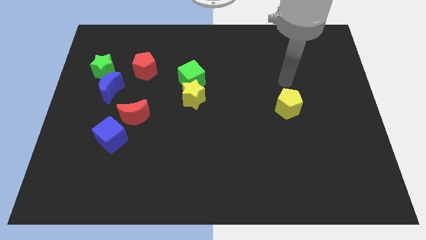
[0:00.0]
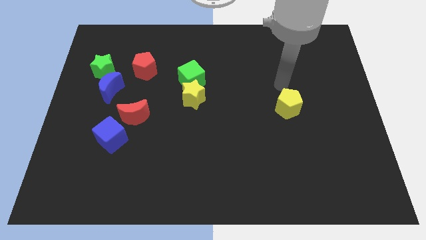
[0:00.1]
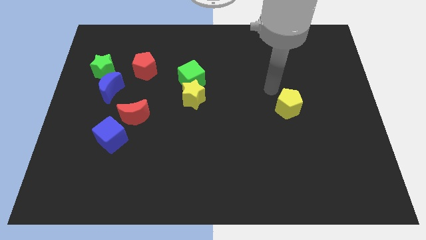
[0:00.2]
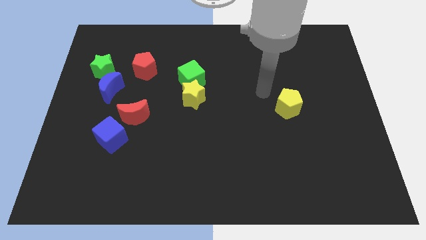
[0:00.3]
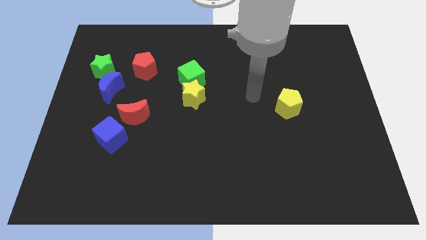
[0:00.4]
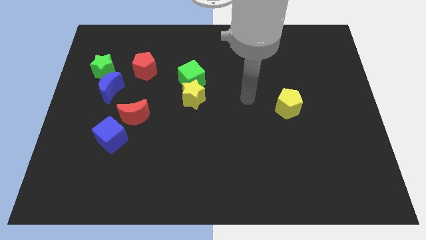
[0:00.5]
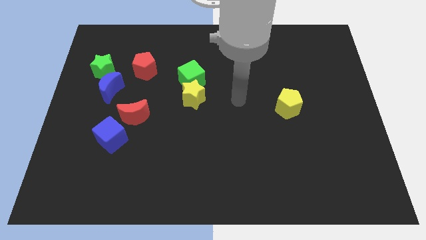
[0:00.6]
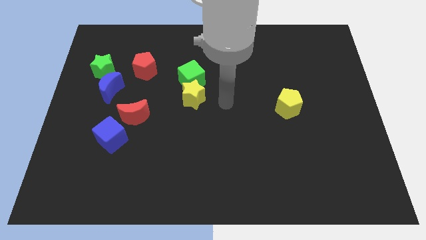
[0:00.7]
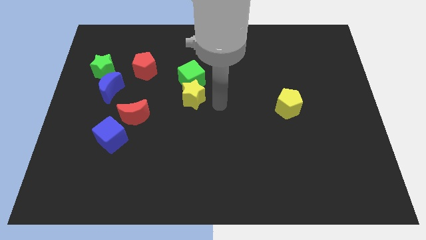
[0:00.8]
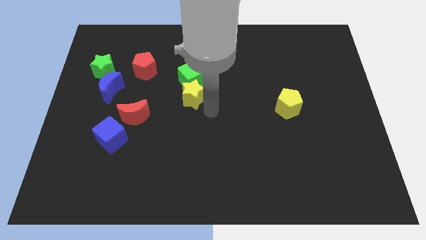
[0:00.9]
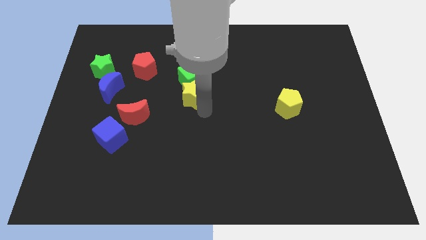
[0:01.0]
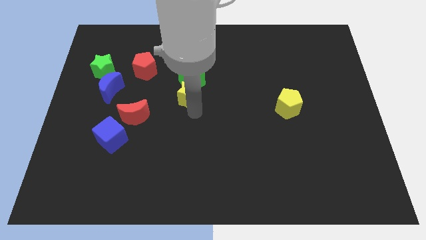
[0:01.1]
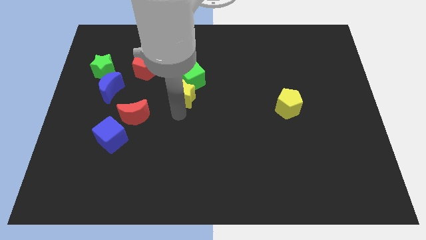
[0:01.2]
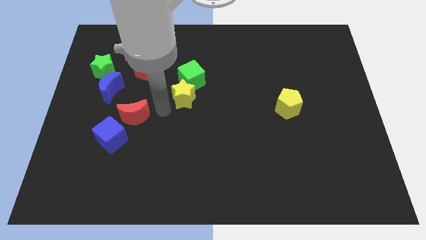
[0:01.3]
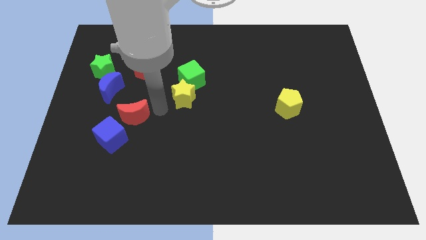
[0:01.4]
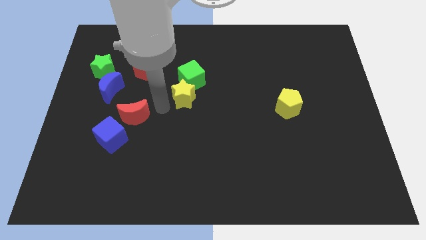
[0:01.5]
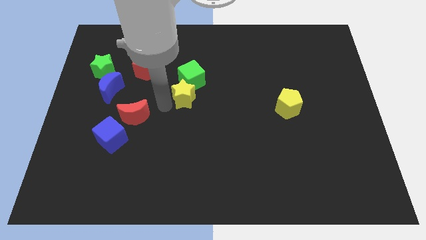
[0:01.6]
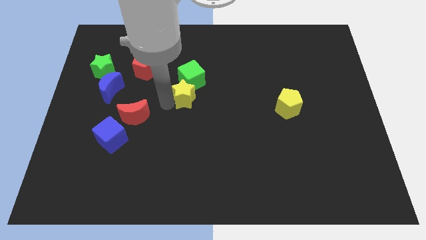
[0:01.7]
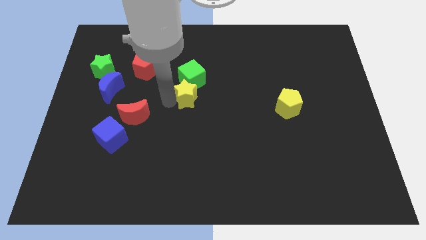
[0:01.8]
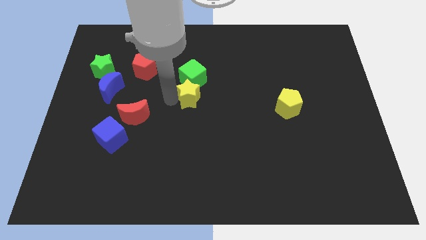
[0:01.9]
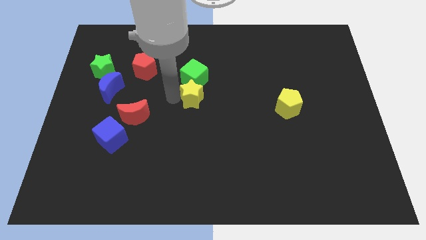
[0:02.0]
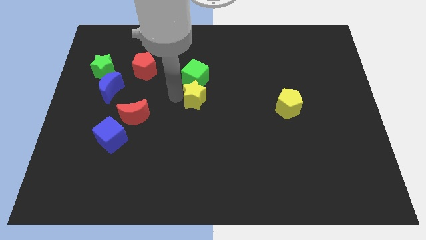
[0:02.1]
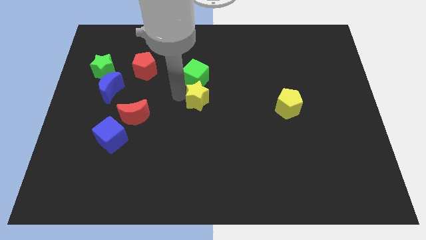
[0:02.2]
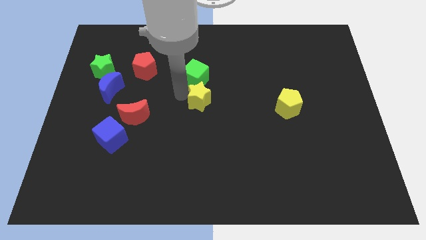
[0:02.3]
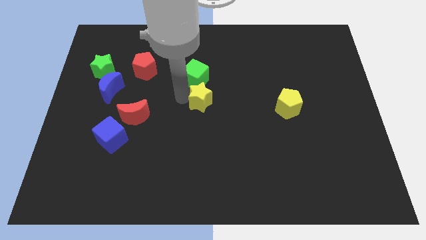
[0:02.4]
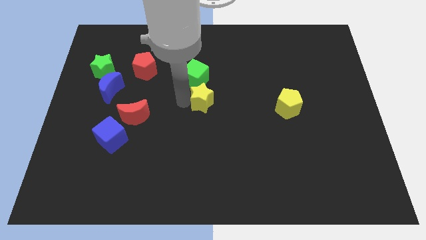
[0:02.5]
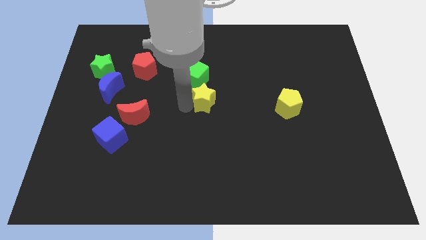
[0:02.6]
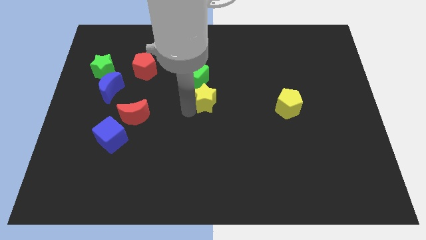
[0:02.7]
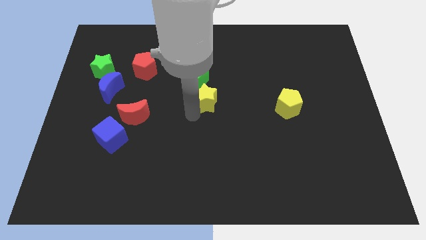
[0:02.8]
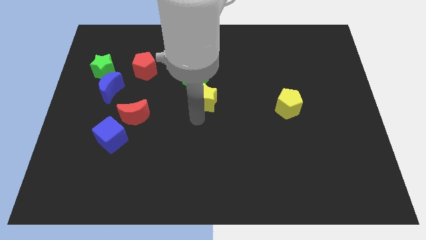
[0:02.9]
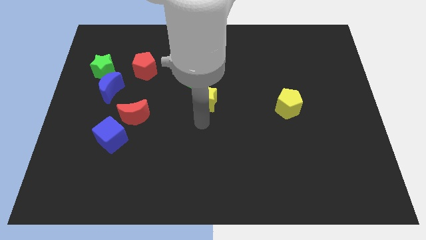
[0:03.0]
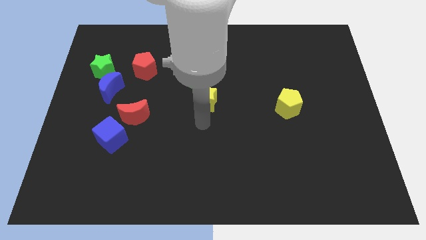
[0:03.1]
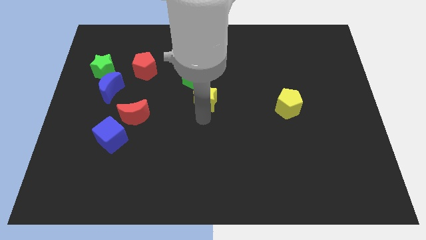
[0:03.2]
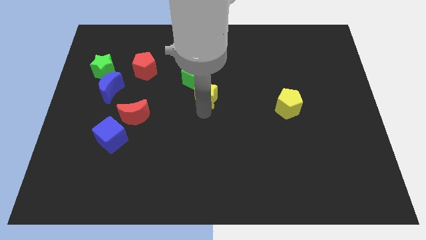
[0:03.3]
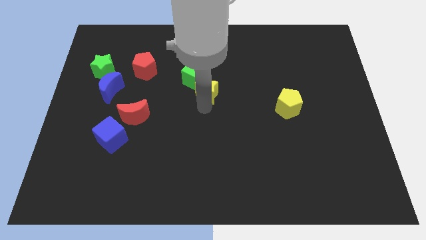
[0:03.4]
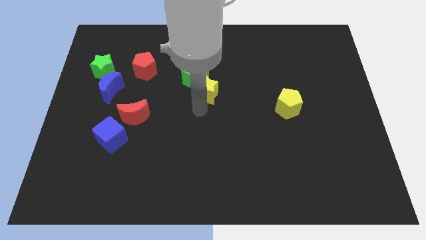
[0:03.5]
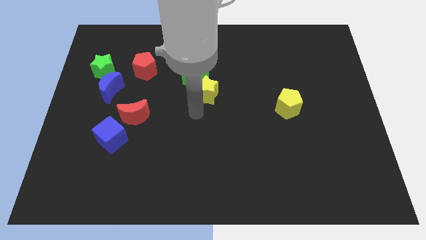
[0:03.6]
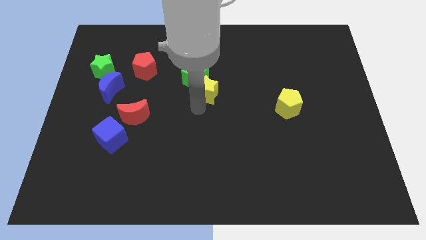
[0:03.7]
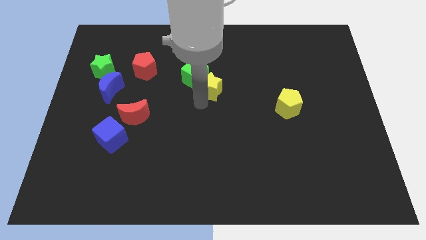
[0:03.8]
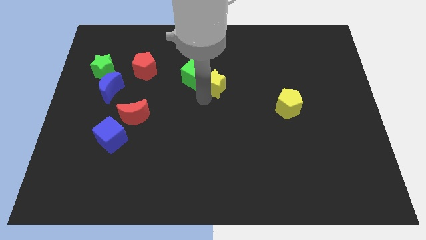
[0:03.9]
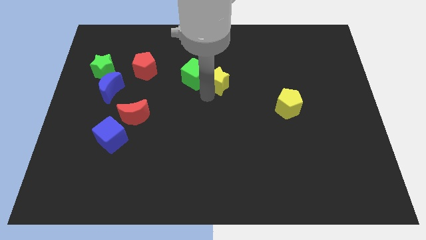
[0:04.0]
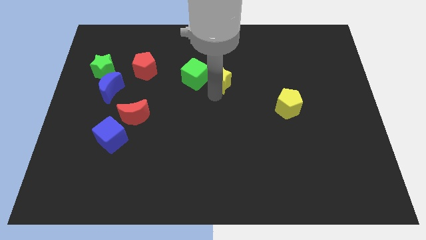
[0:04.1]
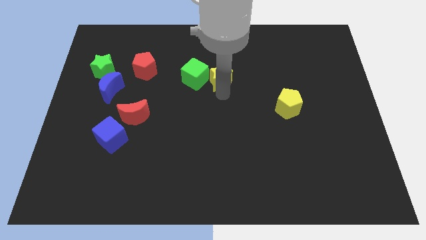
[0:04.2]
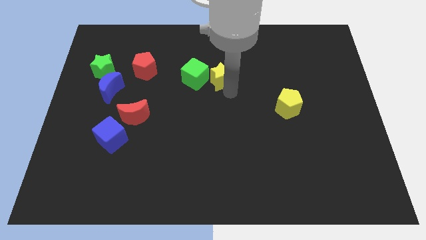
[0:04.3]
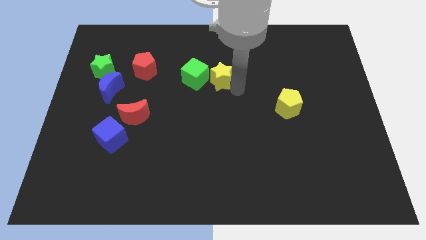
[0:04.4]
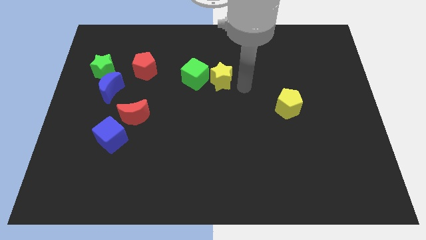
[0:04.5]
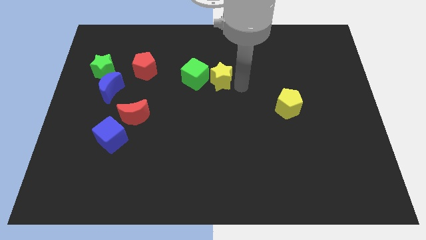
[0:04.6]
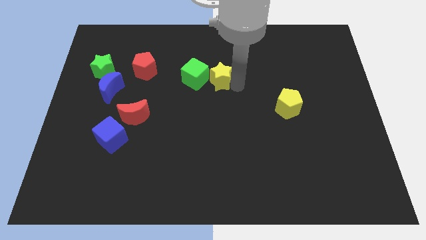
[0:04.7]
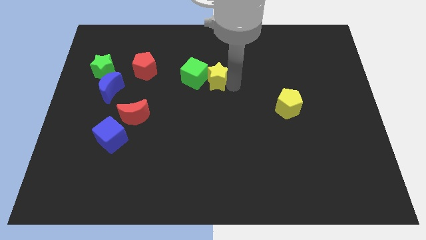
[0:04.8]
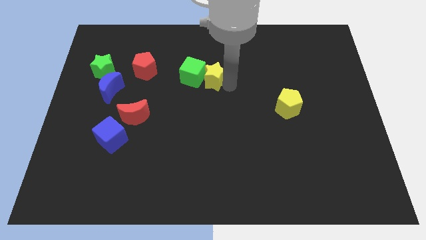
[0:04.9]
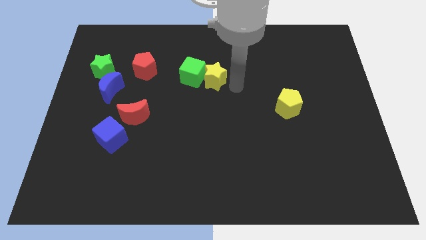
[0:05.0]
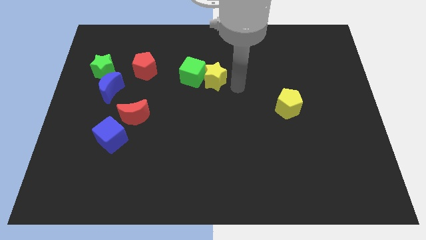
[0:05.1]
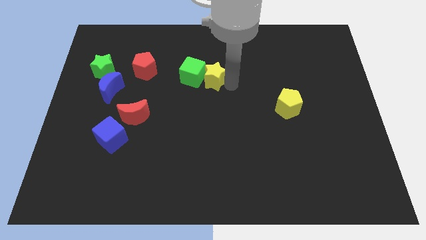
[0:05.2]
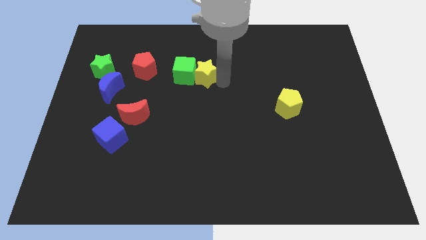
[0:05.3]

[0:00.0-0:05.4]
put the yellow star to the right side of the red pentagon

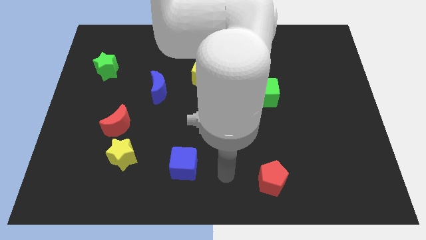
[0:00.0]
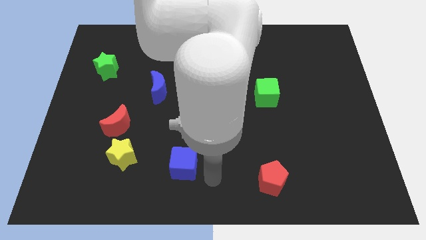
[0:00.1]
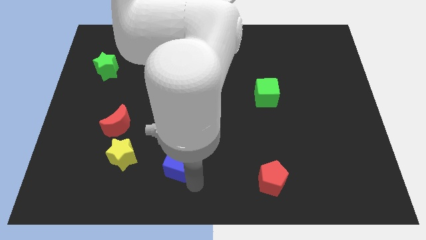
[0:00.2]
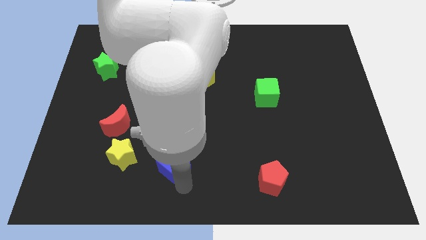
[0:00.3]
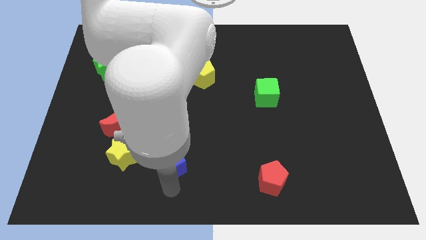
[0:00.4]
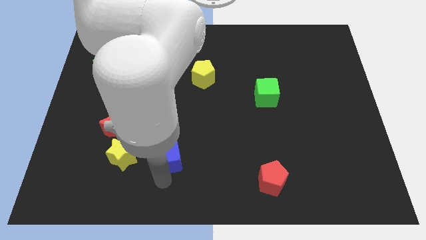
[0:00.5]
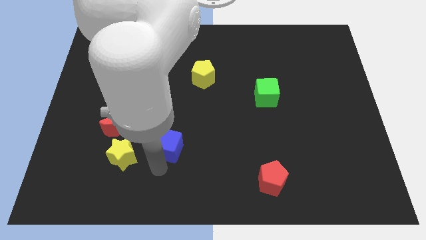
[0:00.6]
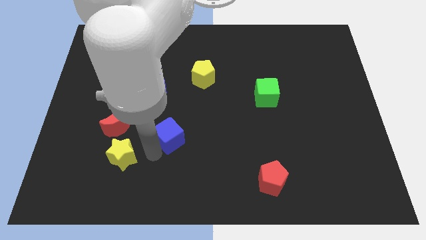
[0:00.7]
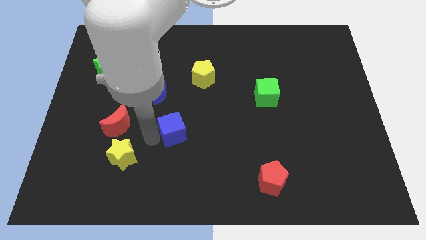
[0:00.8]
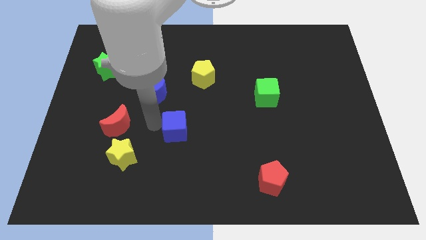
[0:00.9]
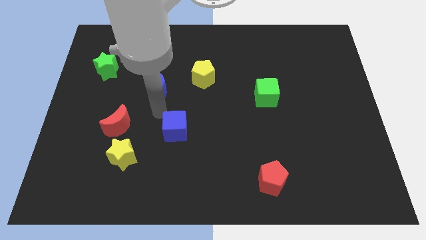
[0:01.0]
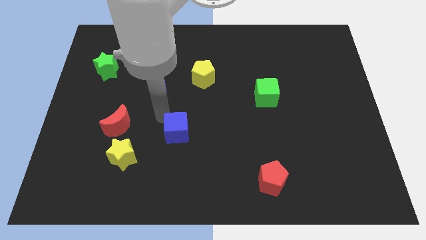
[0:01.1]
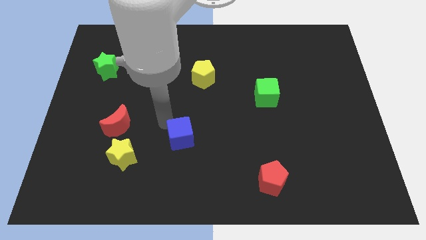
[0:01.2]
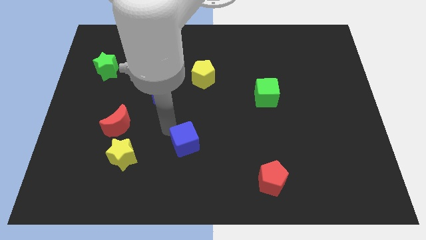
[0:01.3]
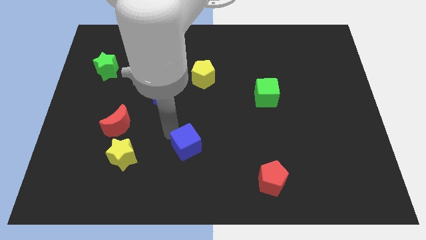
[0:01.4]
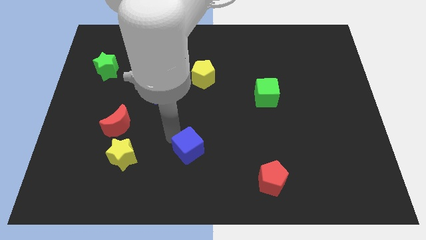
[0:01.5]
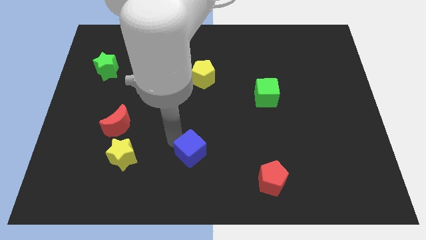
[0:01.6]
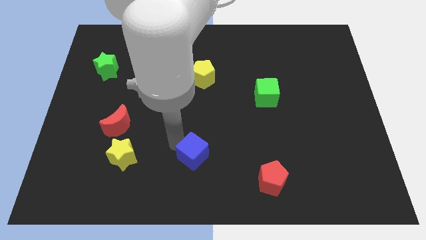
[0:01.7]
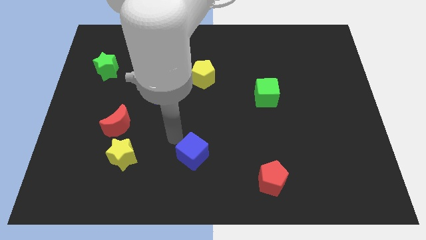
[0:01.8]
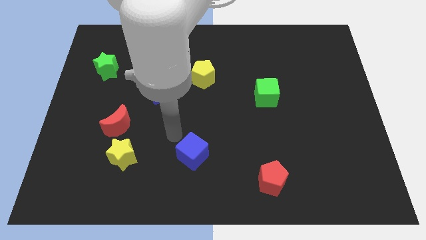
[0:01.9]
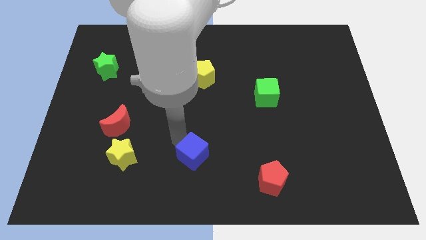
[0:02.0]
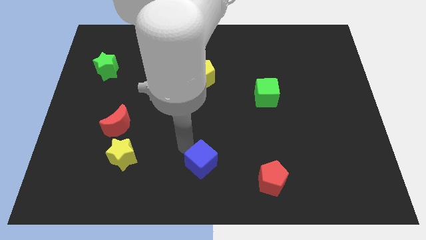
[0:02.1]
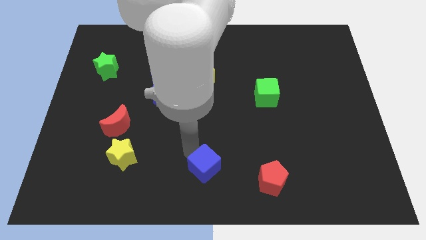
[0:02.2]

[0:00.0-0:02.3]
put the blue cube to the left of the red pentagon

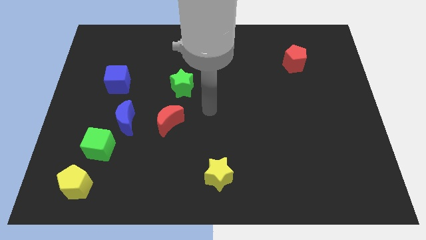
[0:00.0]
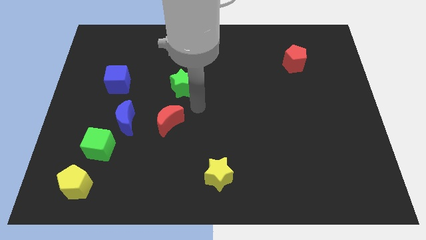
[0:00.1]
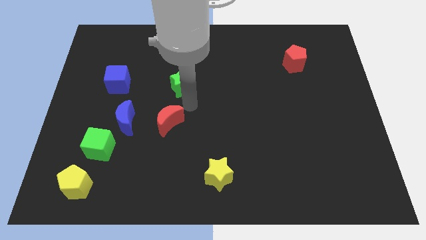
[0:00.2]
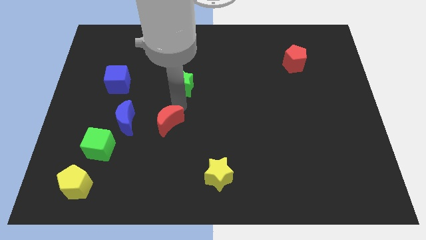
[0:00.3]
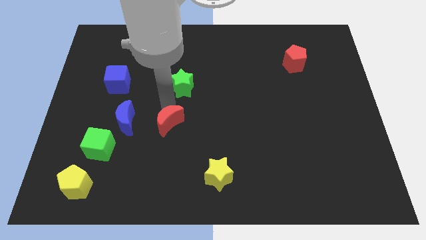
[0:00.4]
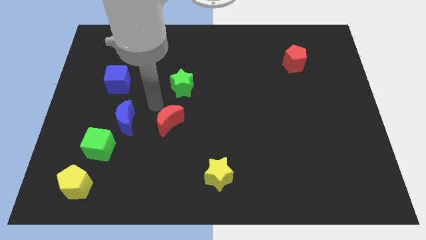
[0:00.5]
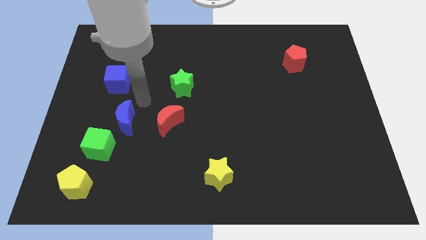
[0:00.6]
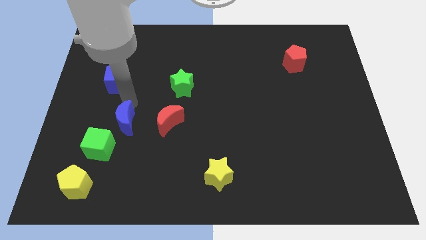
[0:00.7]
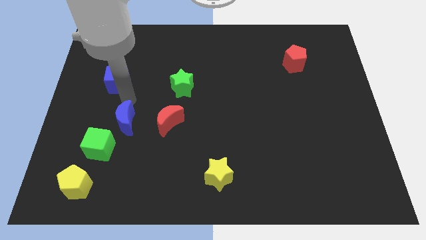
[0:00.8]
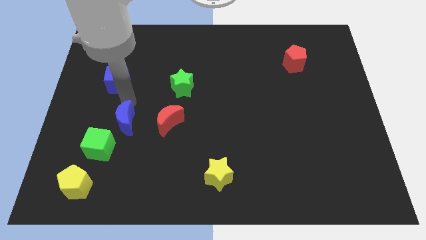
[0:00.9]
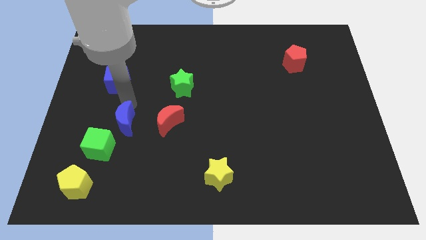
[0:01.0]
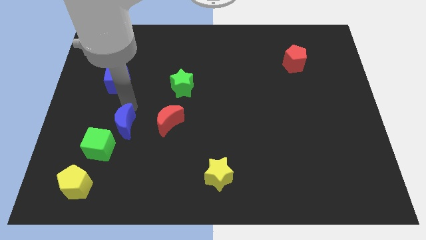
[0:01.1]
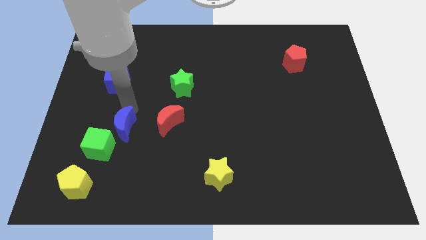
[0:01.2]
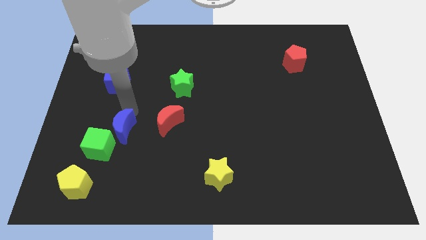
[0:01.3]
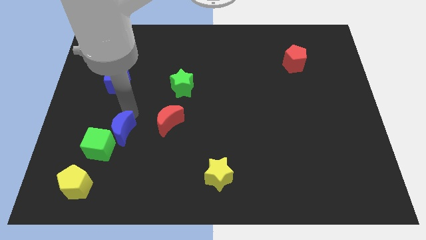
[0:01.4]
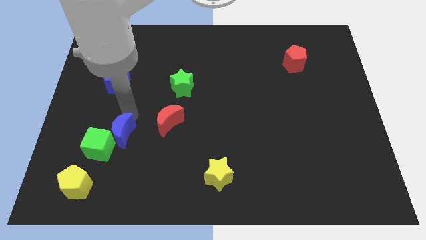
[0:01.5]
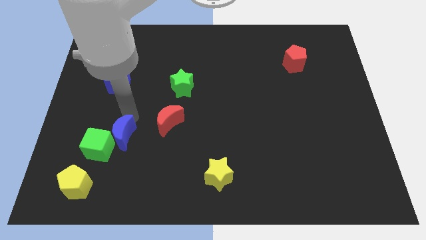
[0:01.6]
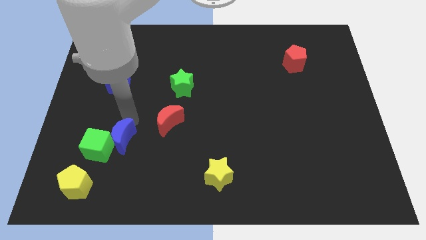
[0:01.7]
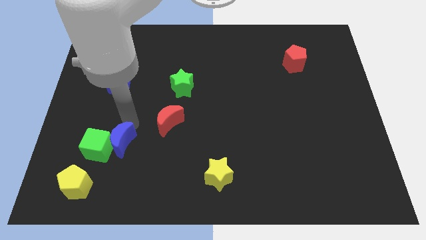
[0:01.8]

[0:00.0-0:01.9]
move the blue moon diagonally down and to the right of the green cube
